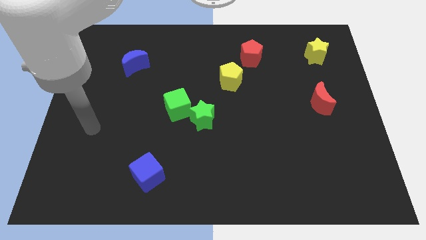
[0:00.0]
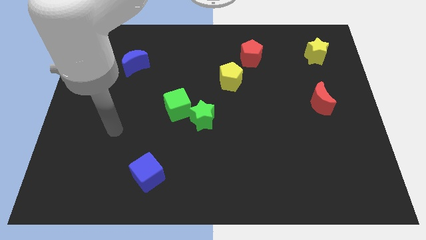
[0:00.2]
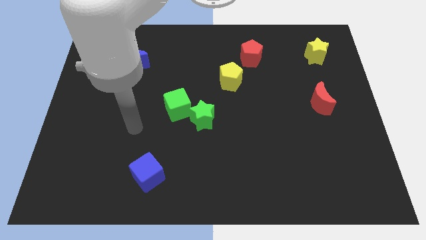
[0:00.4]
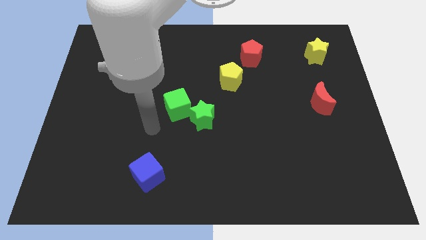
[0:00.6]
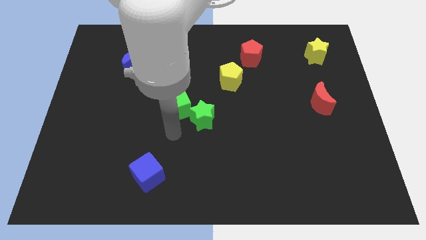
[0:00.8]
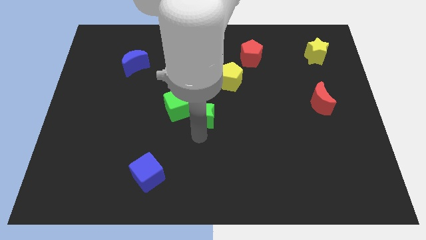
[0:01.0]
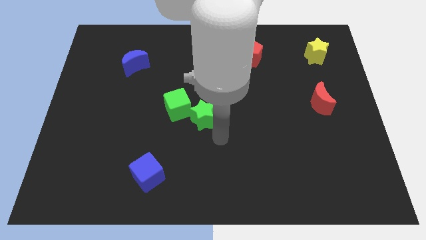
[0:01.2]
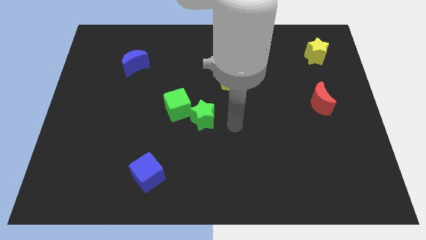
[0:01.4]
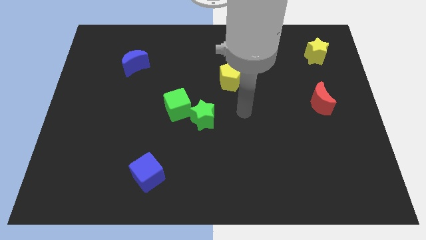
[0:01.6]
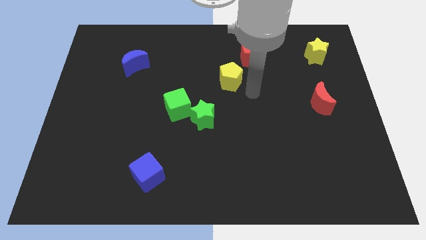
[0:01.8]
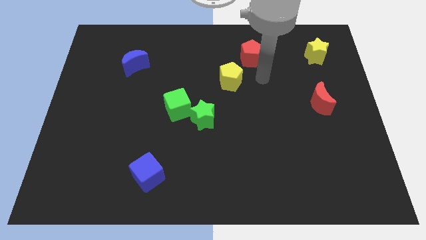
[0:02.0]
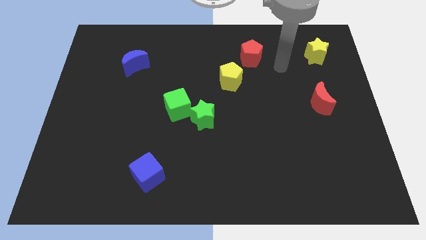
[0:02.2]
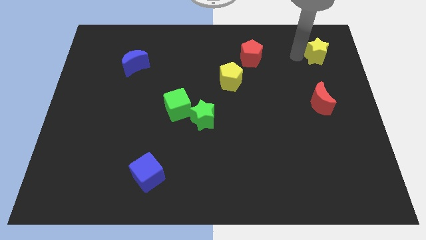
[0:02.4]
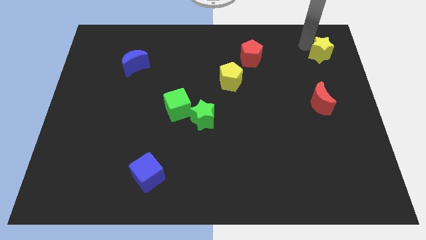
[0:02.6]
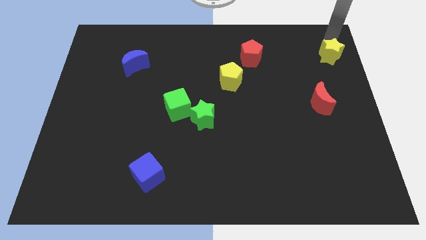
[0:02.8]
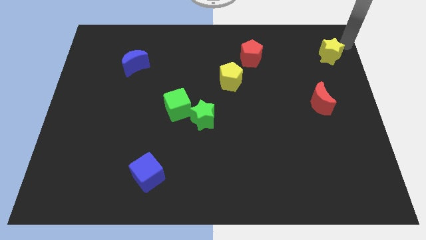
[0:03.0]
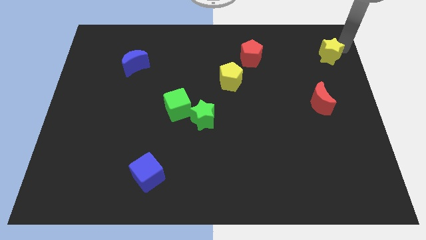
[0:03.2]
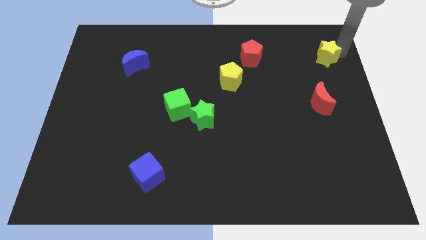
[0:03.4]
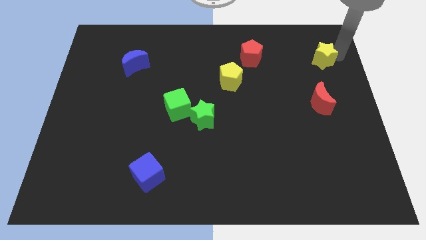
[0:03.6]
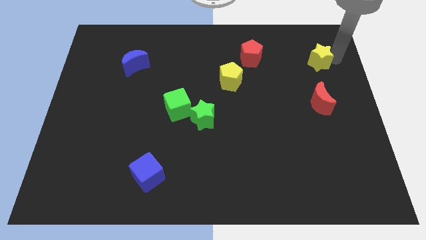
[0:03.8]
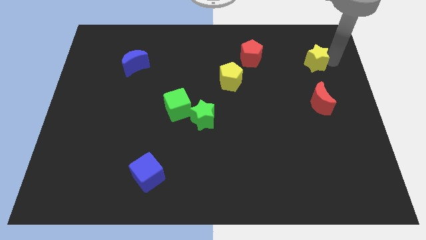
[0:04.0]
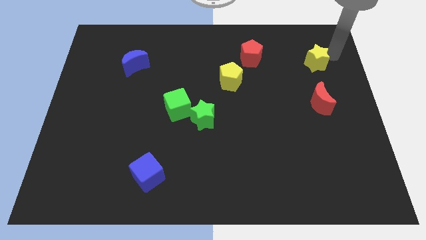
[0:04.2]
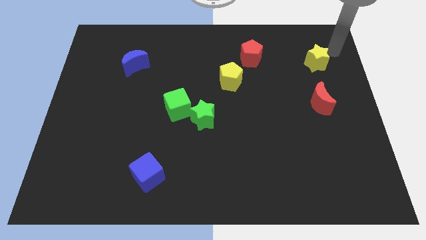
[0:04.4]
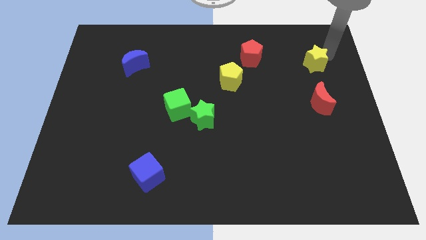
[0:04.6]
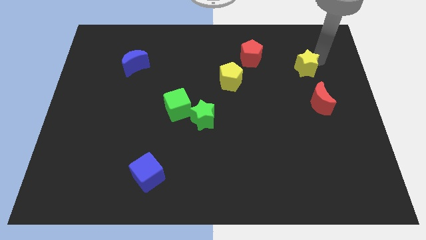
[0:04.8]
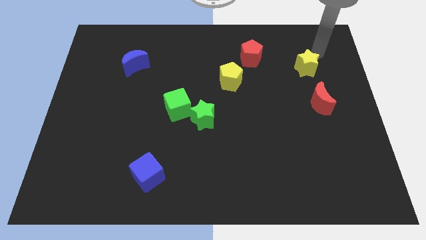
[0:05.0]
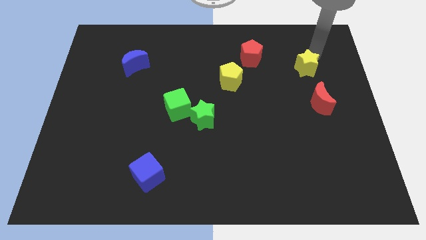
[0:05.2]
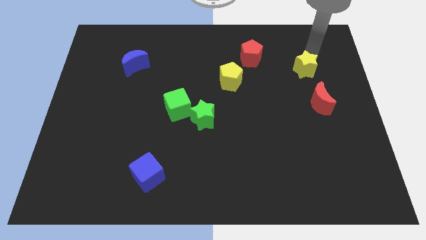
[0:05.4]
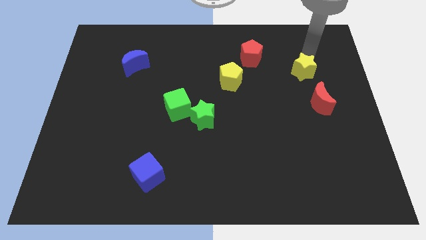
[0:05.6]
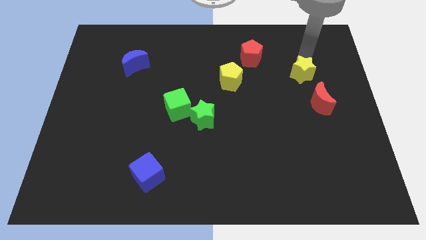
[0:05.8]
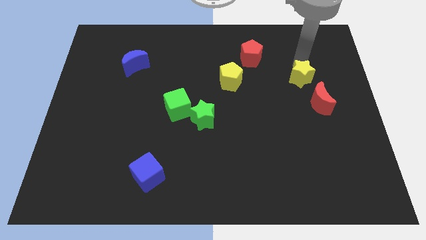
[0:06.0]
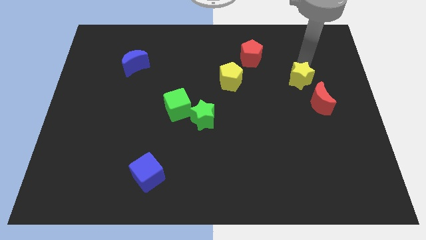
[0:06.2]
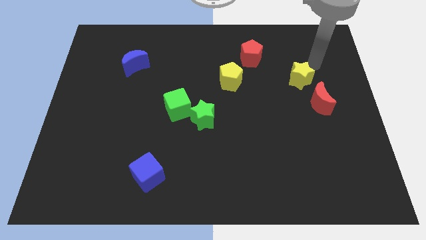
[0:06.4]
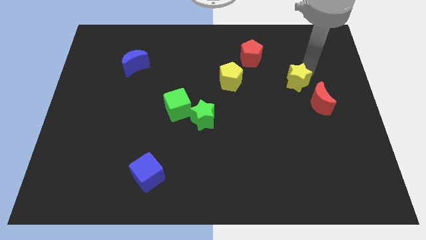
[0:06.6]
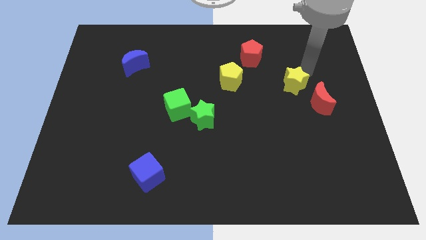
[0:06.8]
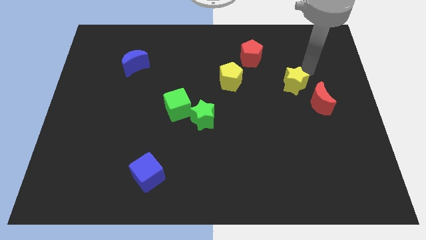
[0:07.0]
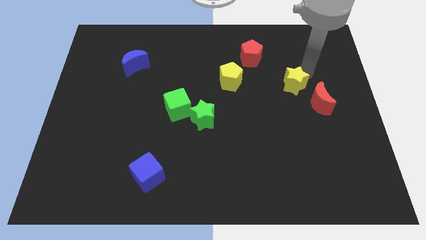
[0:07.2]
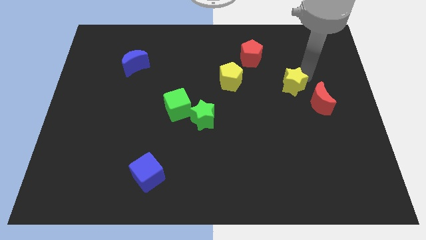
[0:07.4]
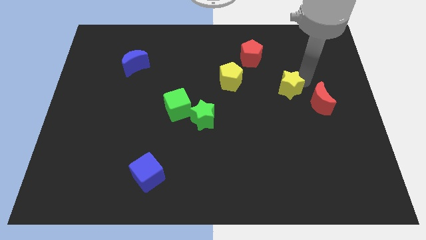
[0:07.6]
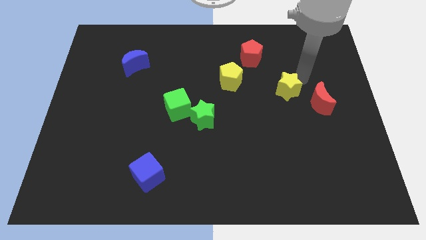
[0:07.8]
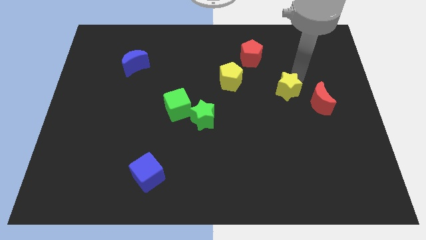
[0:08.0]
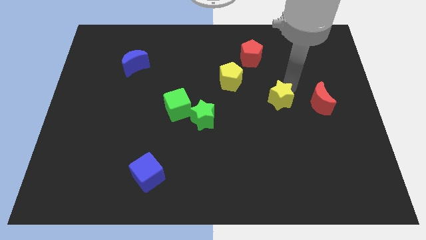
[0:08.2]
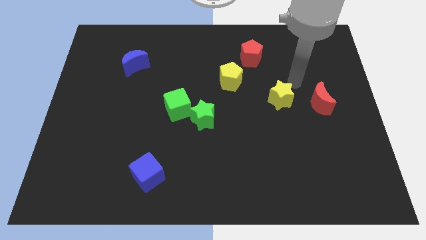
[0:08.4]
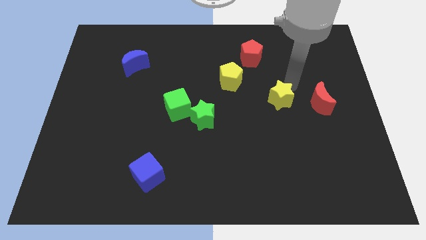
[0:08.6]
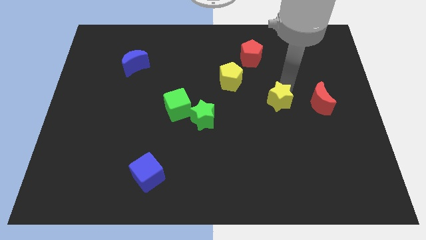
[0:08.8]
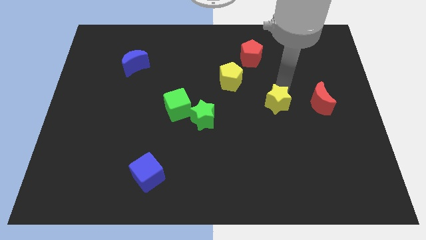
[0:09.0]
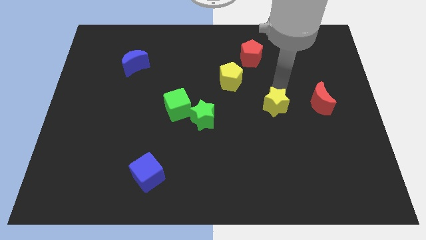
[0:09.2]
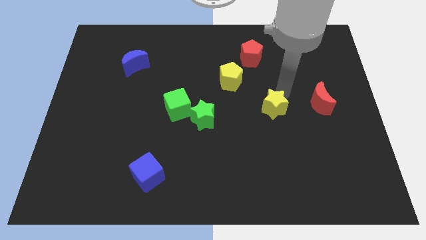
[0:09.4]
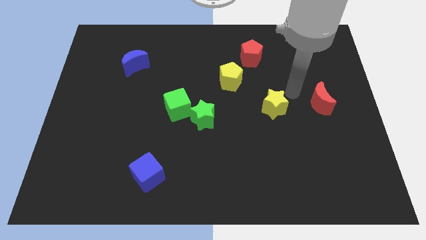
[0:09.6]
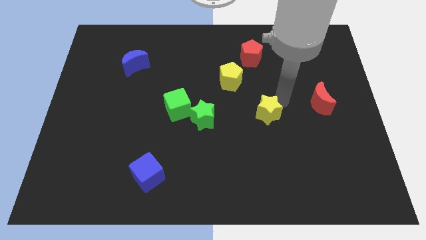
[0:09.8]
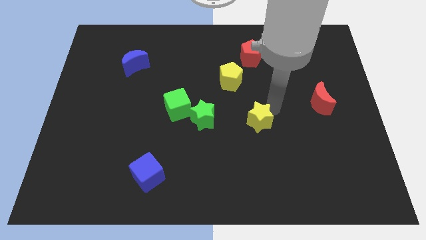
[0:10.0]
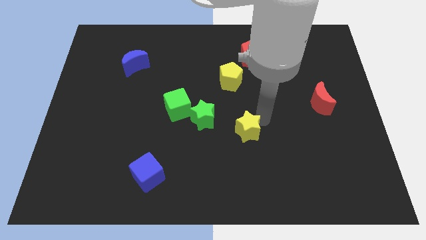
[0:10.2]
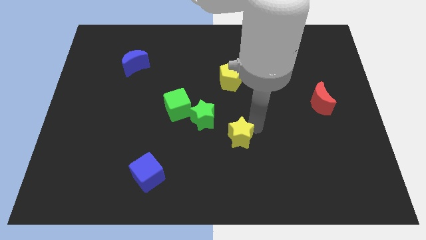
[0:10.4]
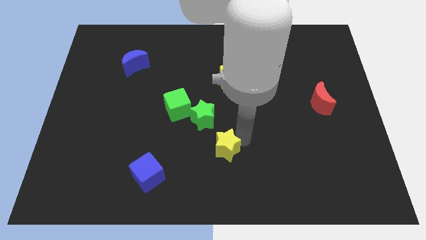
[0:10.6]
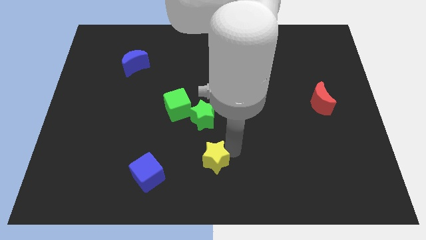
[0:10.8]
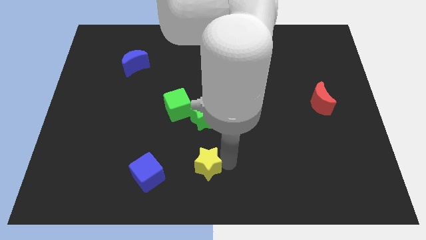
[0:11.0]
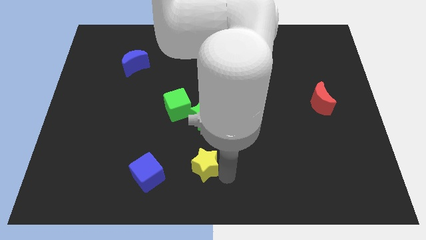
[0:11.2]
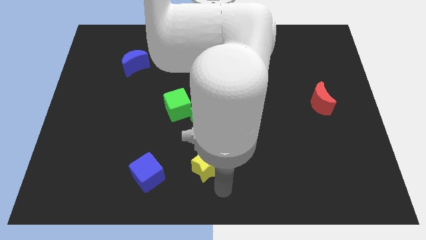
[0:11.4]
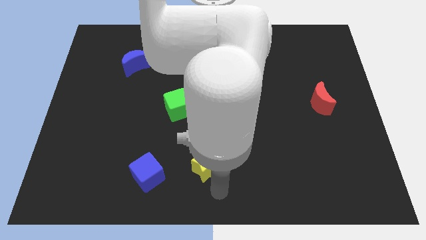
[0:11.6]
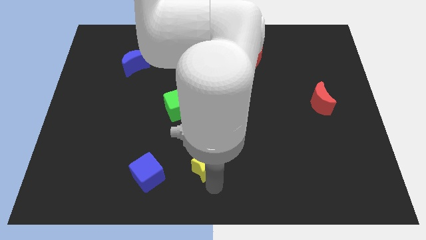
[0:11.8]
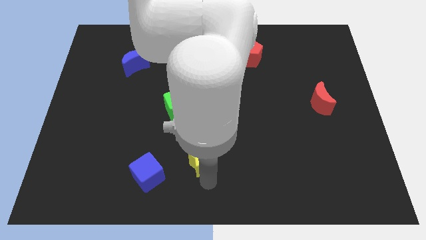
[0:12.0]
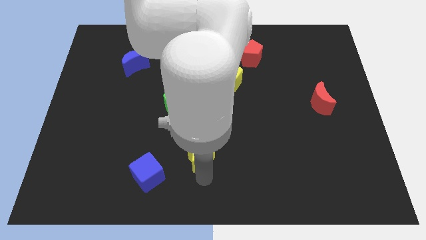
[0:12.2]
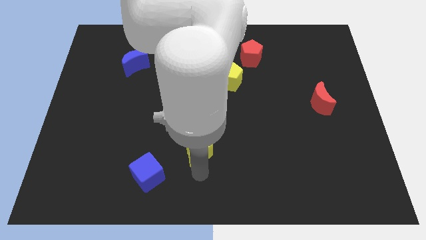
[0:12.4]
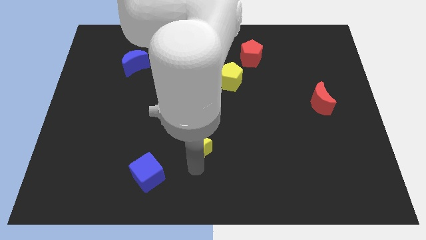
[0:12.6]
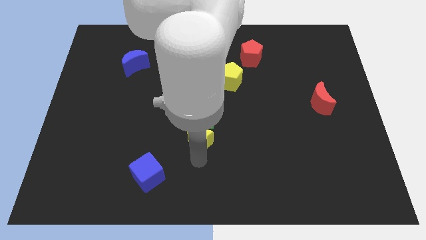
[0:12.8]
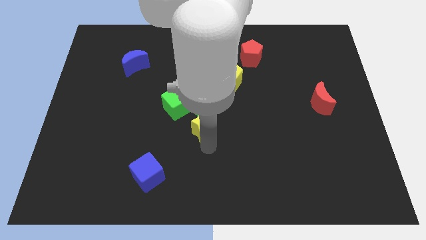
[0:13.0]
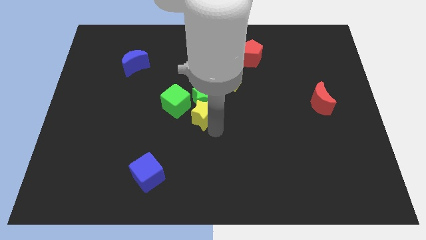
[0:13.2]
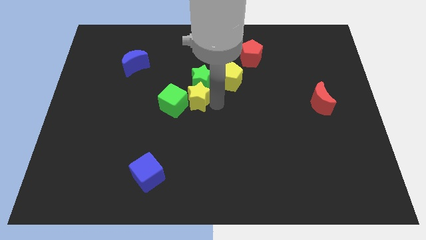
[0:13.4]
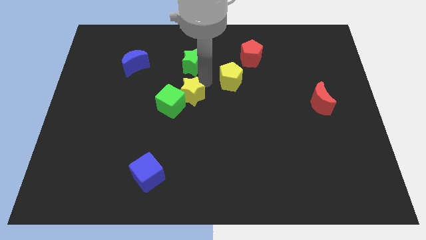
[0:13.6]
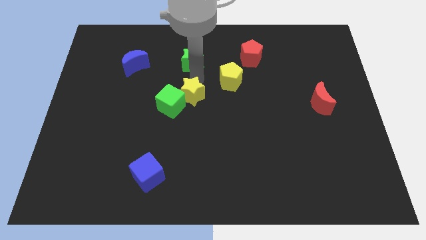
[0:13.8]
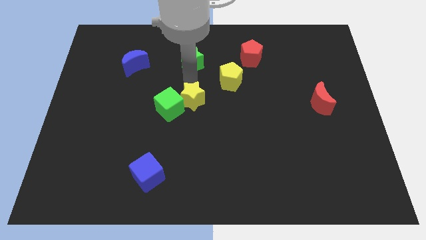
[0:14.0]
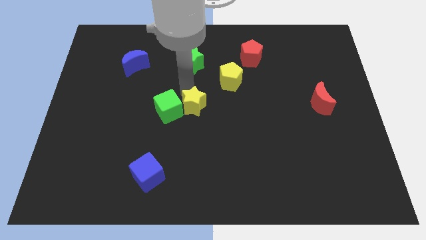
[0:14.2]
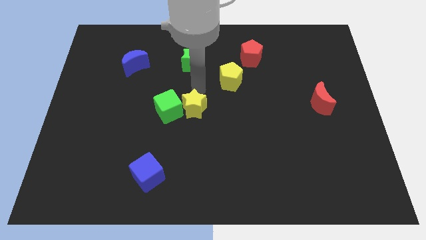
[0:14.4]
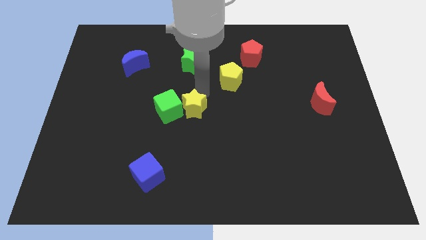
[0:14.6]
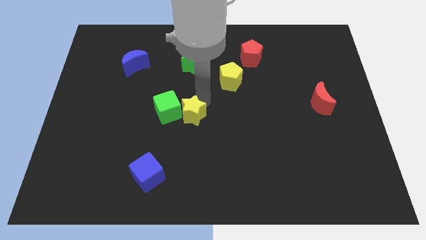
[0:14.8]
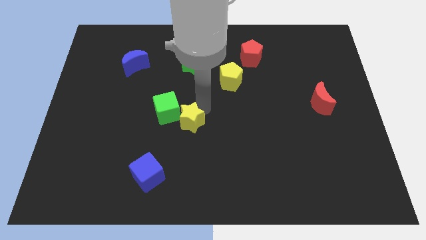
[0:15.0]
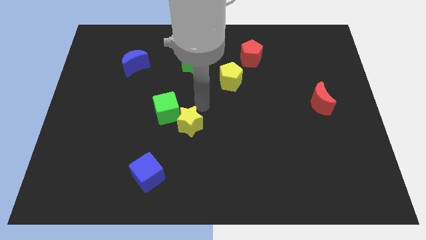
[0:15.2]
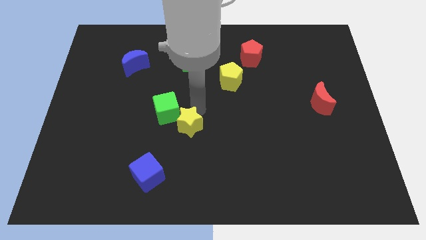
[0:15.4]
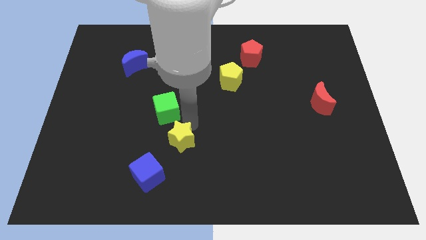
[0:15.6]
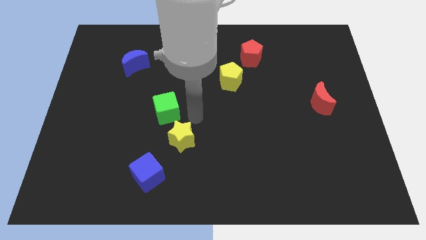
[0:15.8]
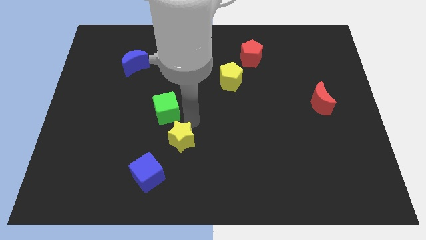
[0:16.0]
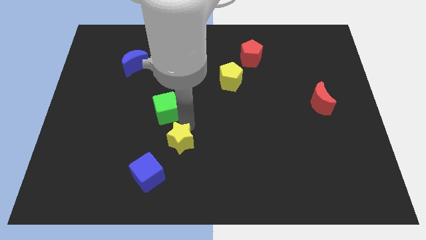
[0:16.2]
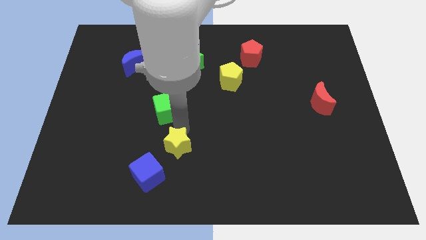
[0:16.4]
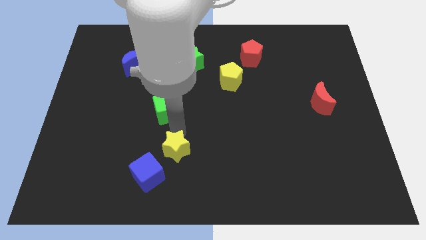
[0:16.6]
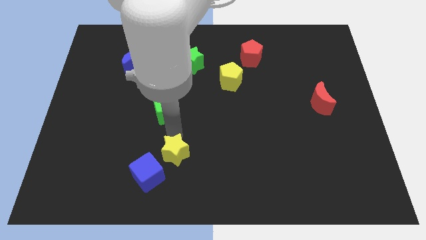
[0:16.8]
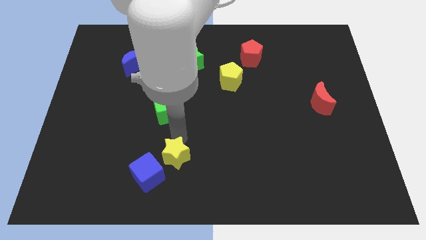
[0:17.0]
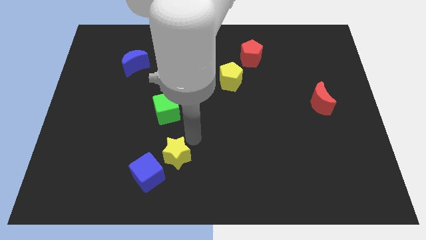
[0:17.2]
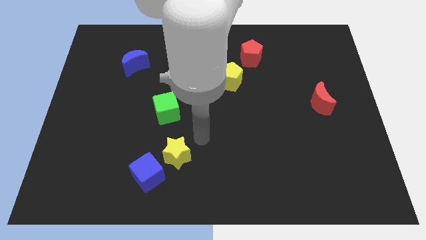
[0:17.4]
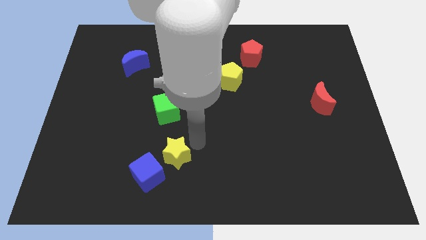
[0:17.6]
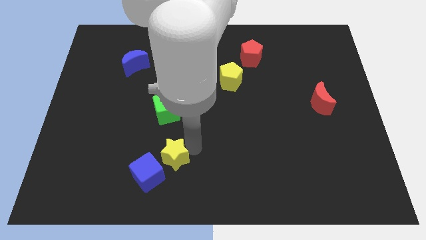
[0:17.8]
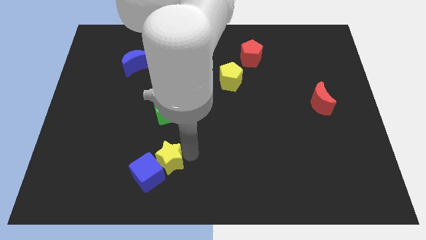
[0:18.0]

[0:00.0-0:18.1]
slide the yellow star close to the blue cube
